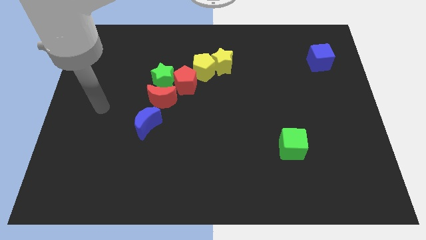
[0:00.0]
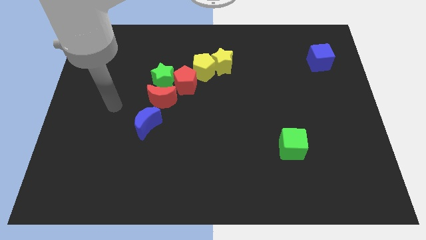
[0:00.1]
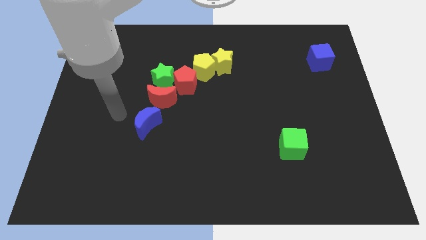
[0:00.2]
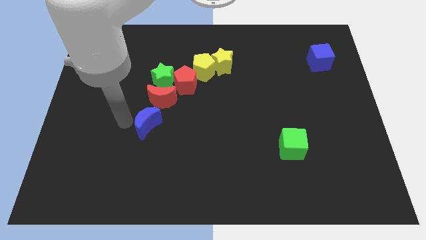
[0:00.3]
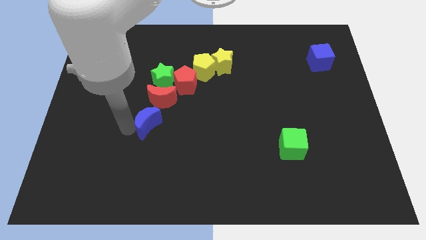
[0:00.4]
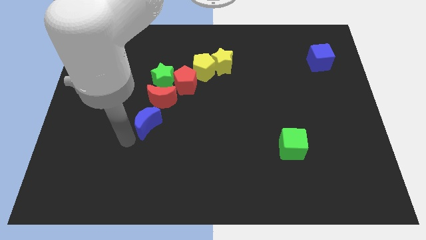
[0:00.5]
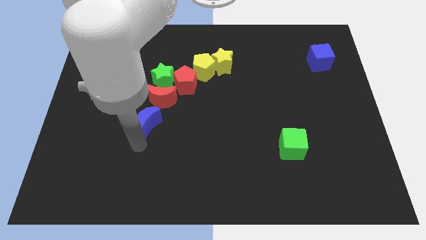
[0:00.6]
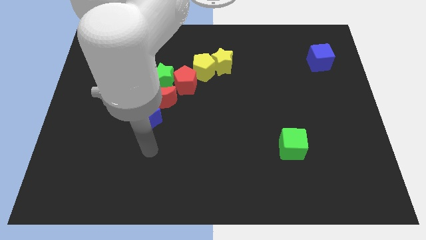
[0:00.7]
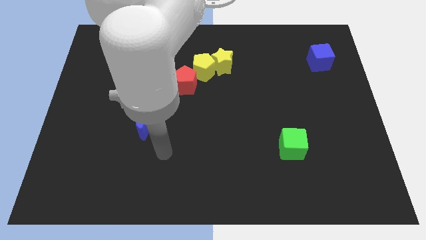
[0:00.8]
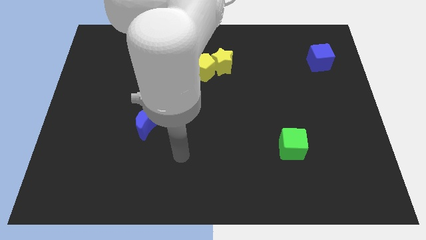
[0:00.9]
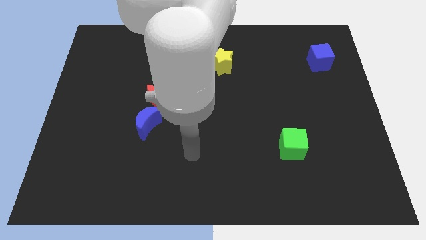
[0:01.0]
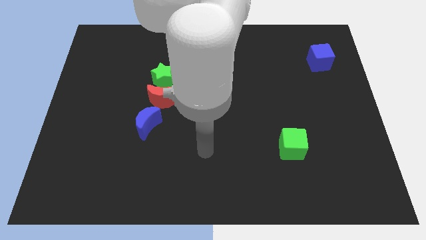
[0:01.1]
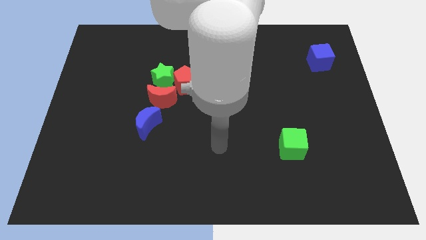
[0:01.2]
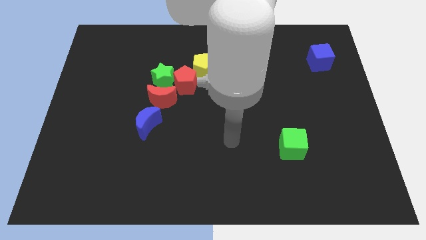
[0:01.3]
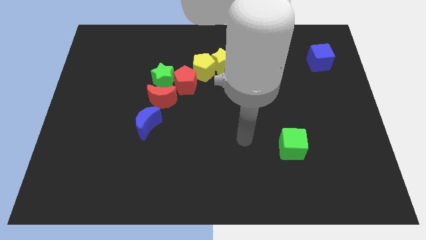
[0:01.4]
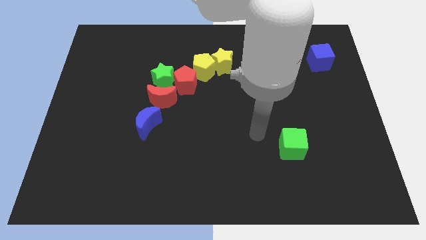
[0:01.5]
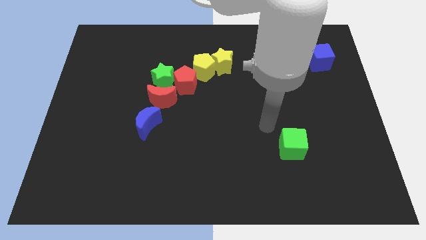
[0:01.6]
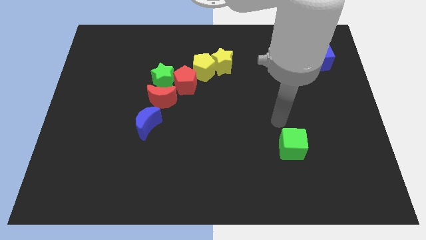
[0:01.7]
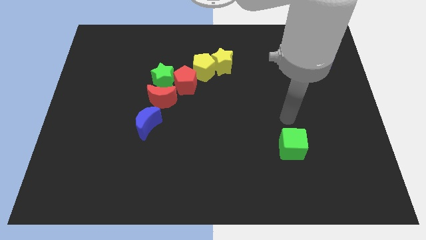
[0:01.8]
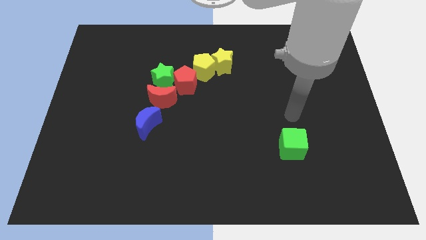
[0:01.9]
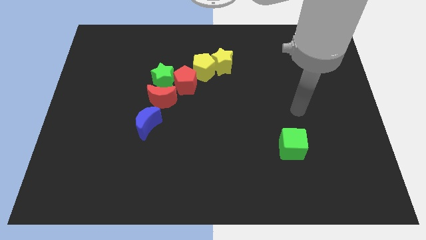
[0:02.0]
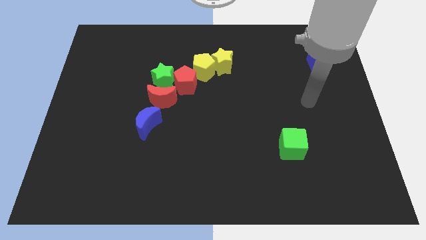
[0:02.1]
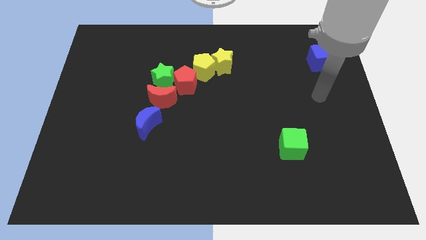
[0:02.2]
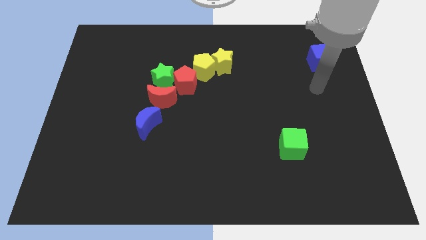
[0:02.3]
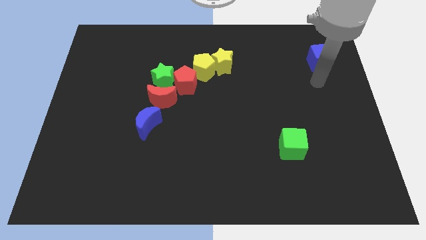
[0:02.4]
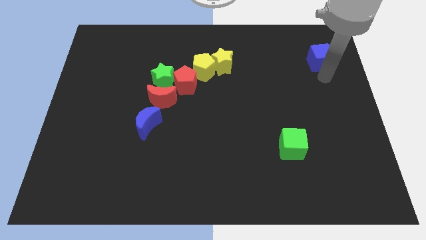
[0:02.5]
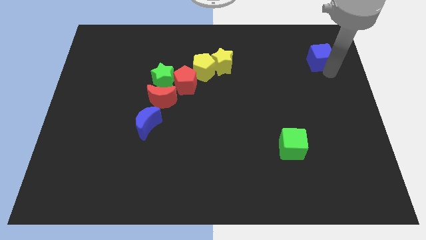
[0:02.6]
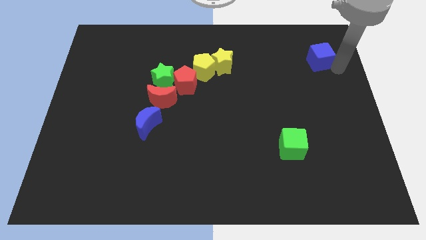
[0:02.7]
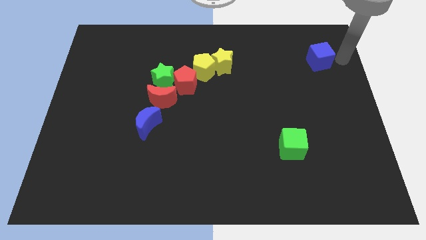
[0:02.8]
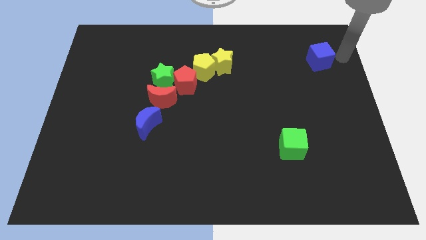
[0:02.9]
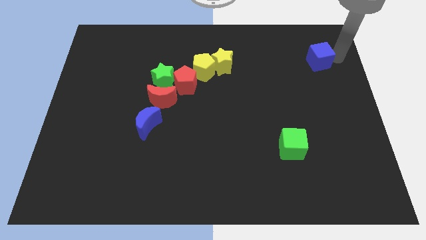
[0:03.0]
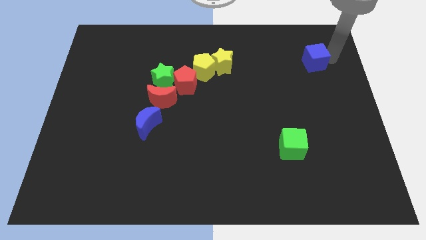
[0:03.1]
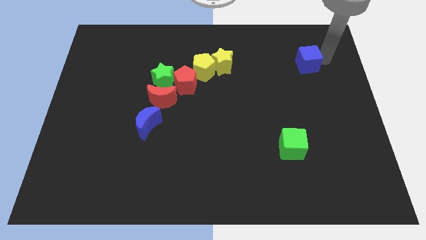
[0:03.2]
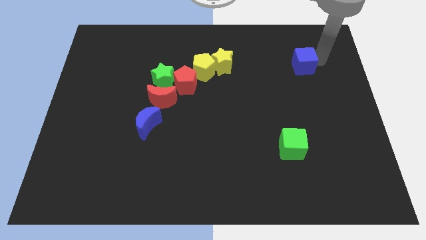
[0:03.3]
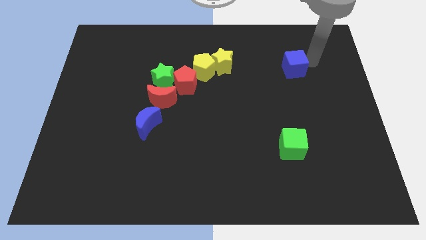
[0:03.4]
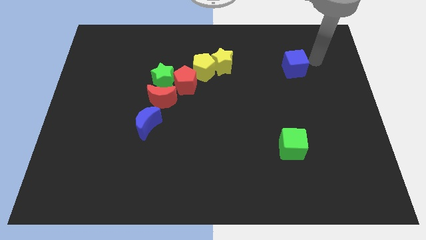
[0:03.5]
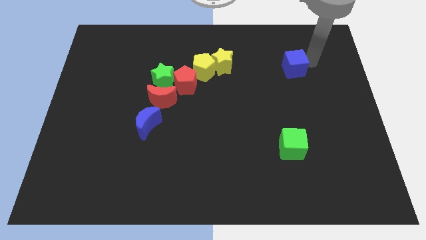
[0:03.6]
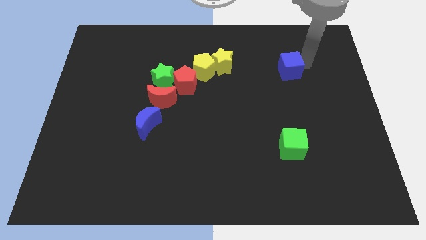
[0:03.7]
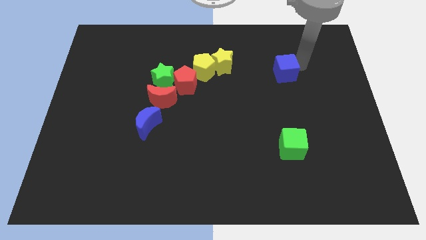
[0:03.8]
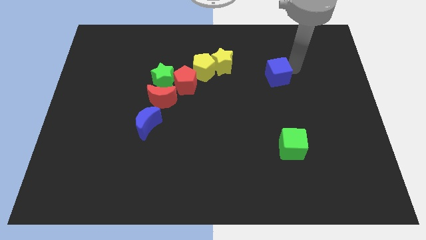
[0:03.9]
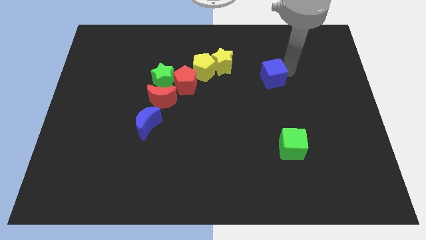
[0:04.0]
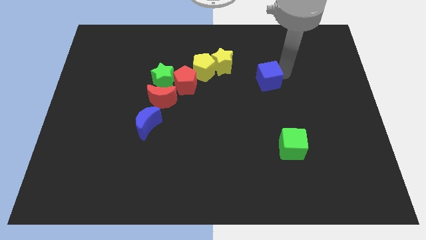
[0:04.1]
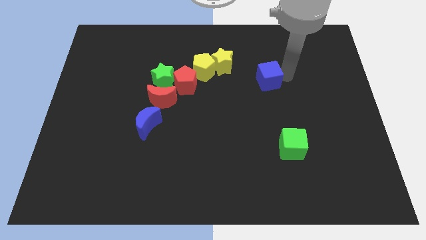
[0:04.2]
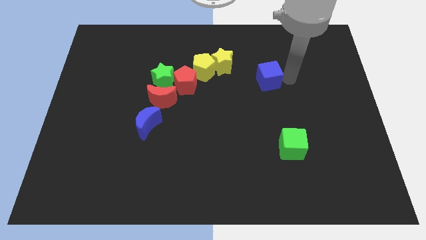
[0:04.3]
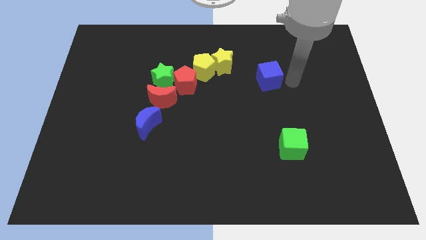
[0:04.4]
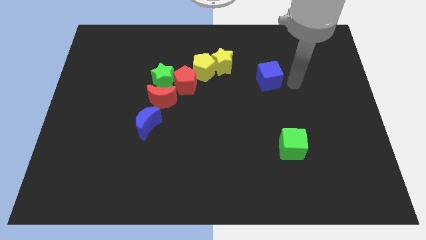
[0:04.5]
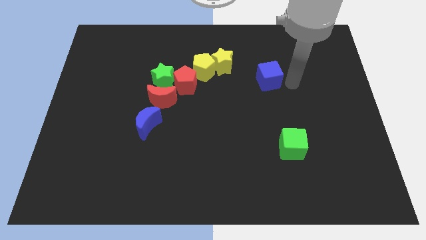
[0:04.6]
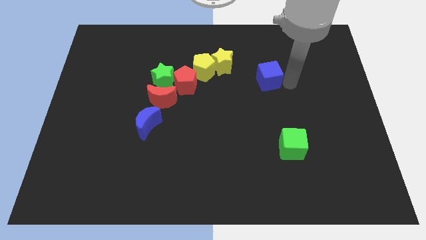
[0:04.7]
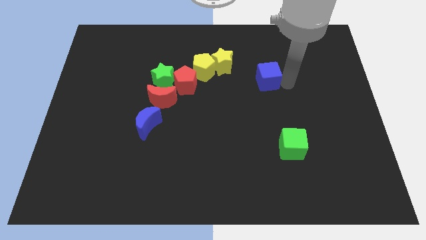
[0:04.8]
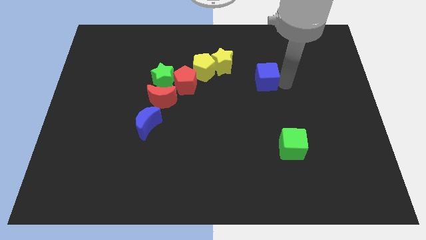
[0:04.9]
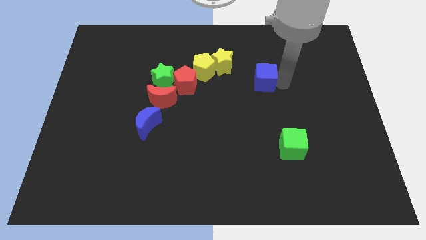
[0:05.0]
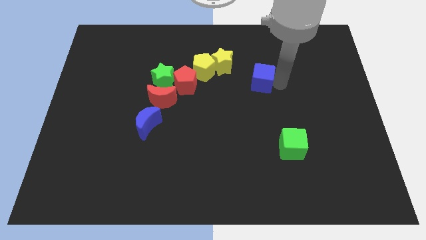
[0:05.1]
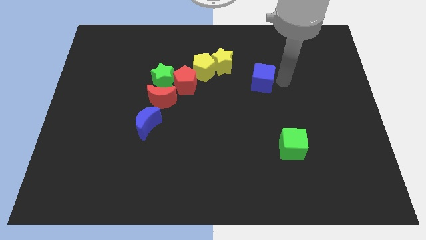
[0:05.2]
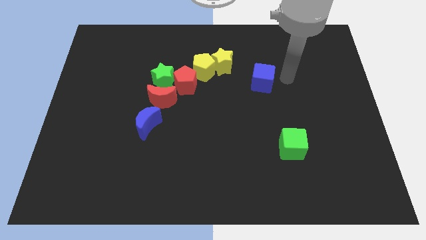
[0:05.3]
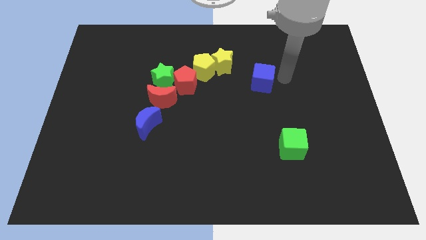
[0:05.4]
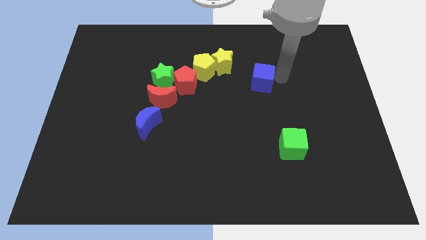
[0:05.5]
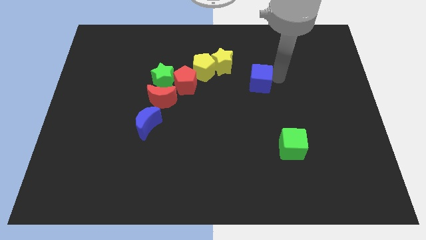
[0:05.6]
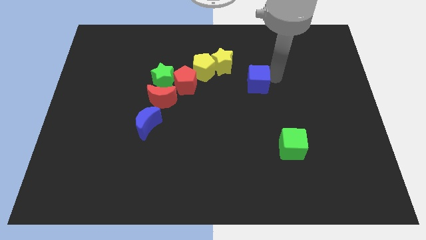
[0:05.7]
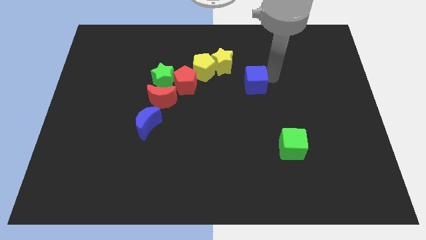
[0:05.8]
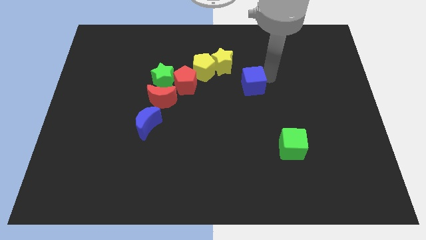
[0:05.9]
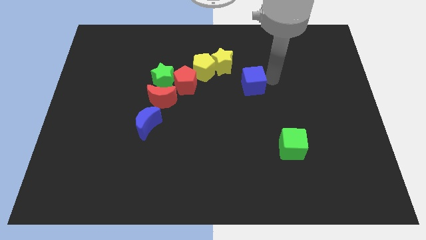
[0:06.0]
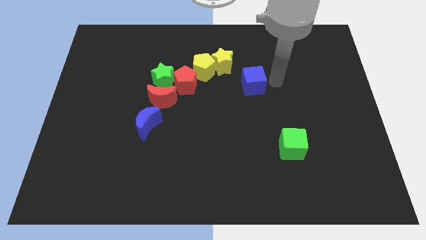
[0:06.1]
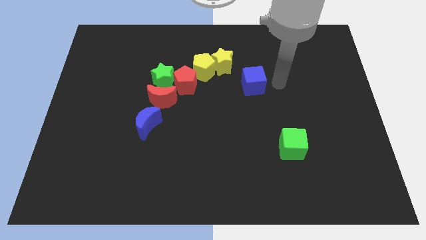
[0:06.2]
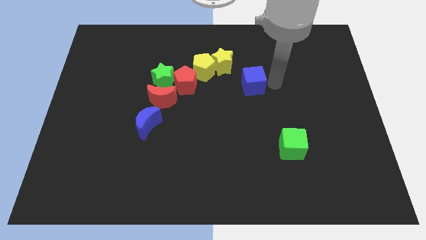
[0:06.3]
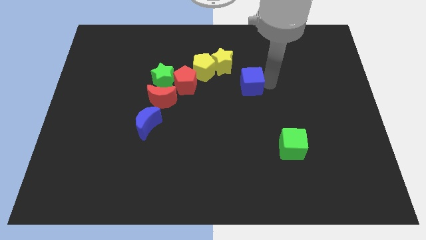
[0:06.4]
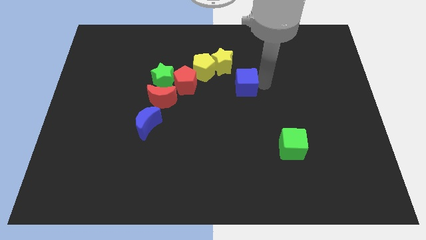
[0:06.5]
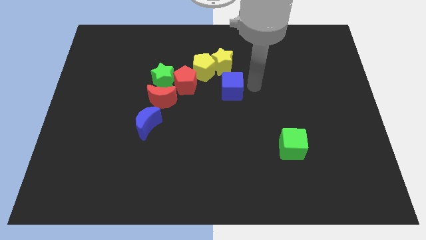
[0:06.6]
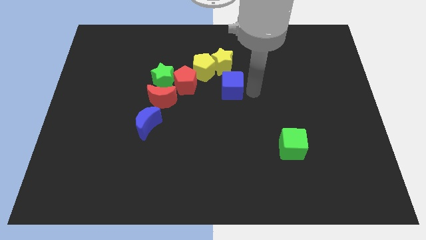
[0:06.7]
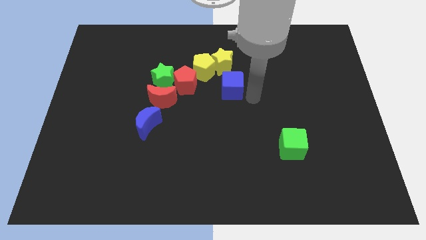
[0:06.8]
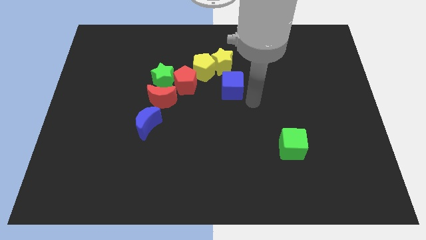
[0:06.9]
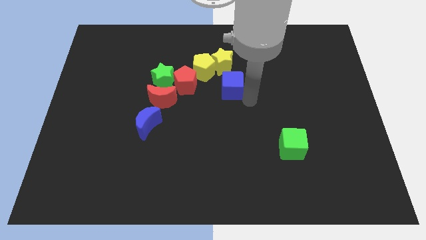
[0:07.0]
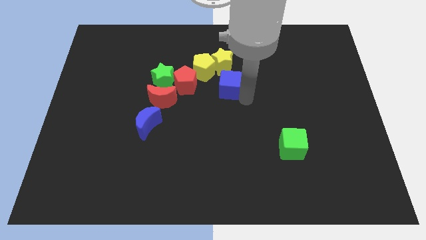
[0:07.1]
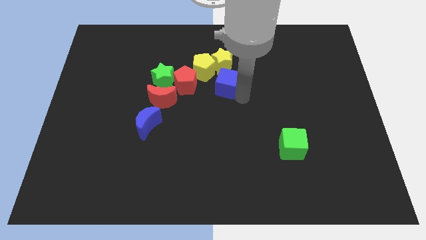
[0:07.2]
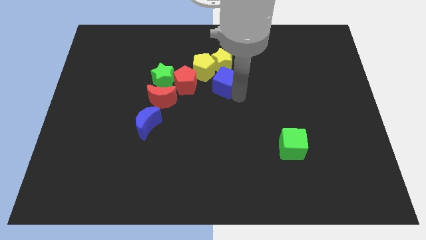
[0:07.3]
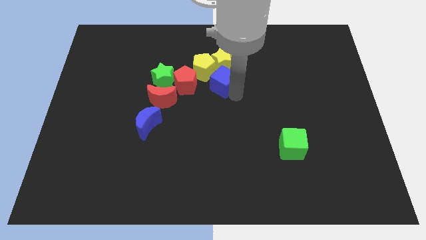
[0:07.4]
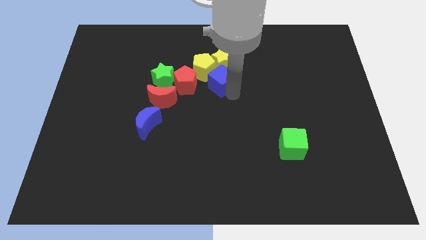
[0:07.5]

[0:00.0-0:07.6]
move the blue cube to the yellow pentagon
